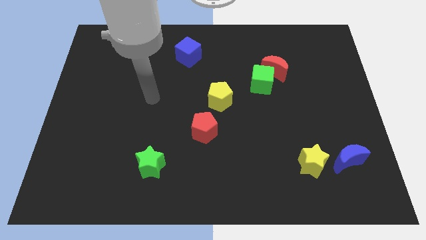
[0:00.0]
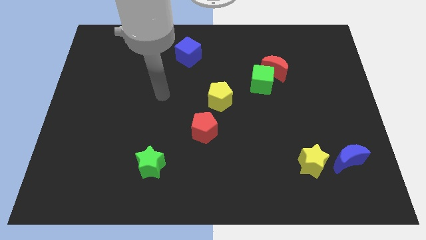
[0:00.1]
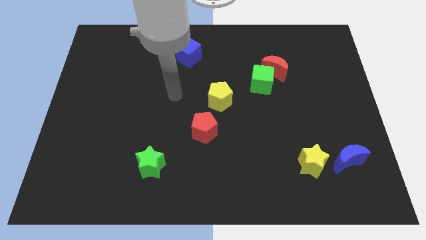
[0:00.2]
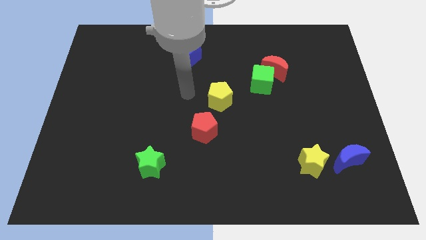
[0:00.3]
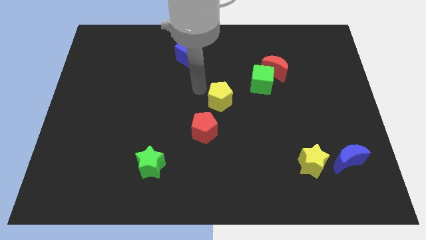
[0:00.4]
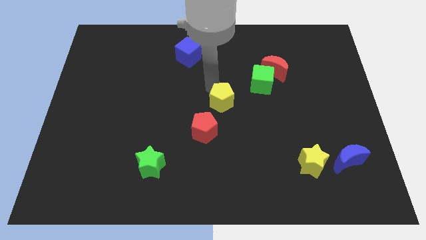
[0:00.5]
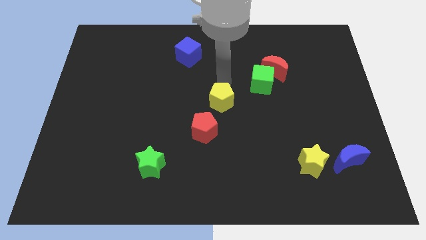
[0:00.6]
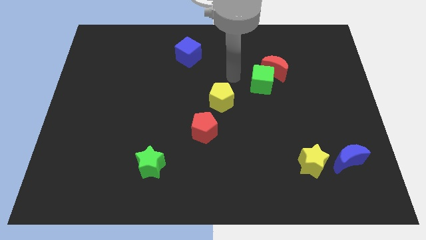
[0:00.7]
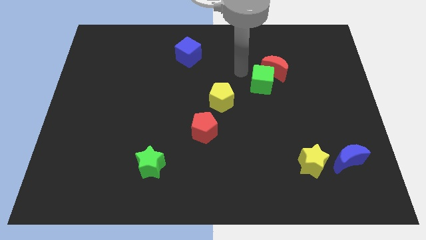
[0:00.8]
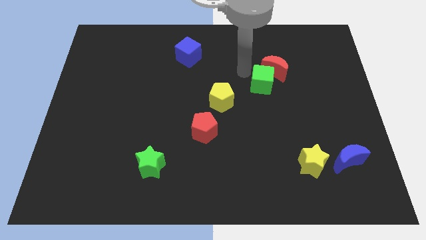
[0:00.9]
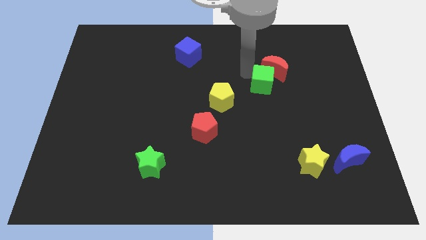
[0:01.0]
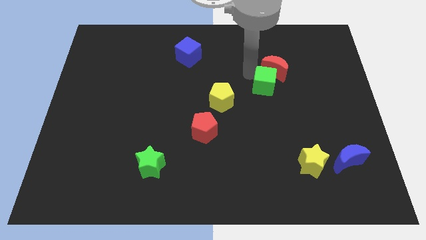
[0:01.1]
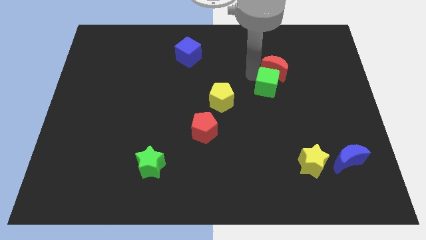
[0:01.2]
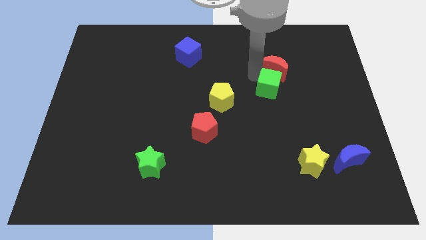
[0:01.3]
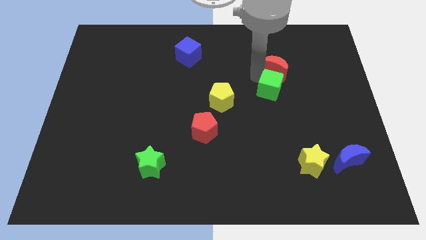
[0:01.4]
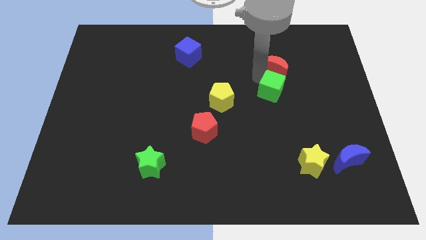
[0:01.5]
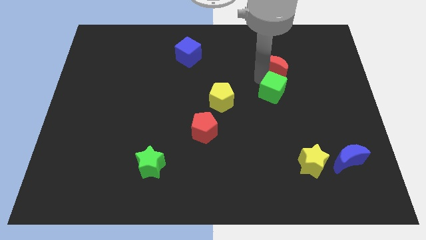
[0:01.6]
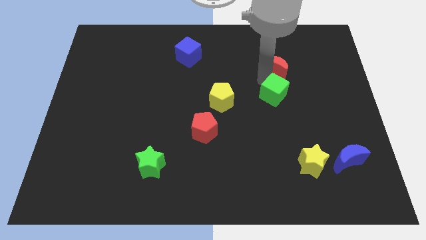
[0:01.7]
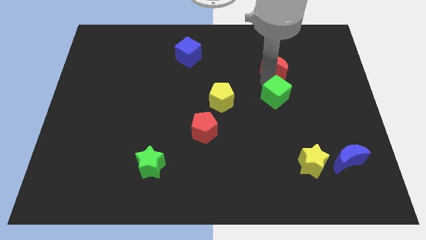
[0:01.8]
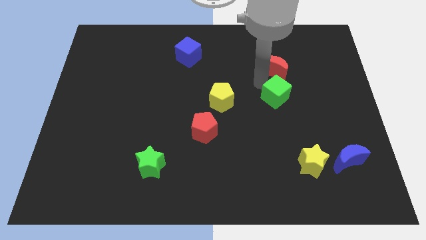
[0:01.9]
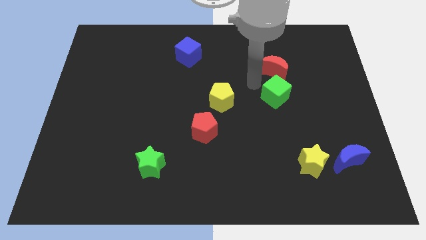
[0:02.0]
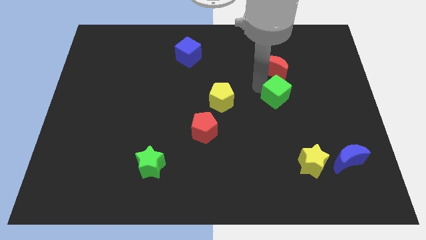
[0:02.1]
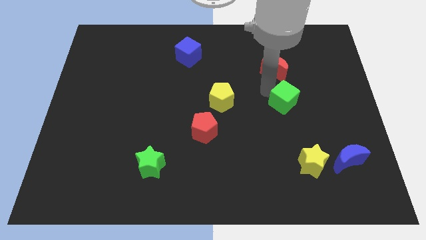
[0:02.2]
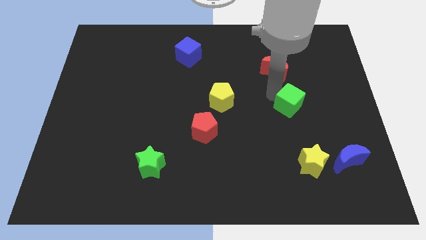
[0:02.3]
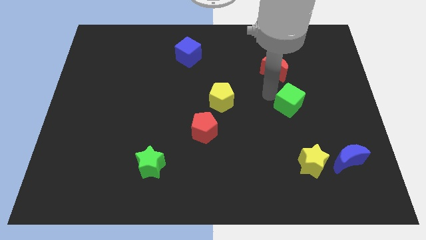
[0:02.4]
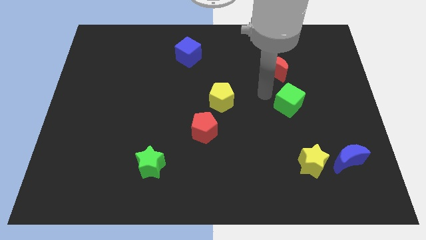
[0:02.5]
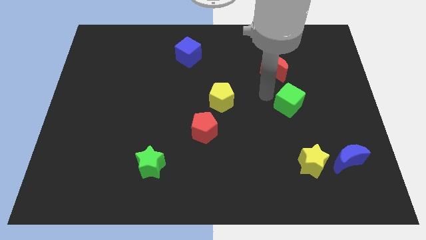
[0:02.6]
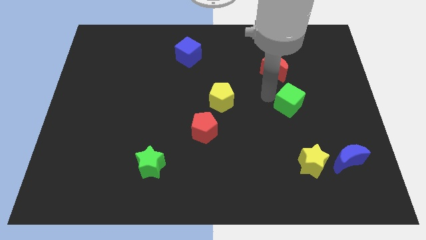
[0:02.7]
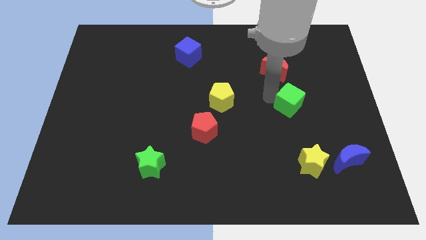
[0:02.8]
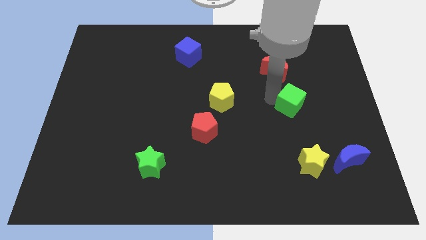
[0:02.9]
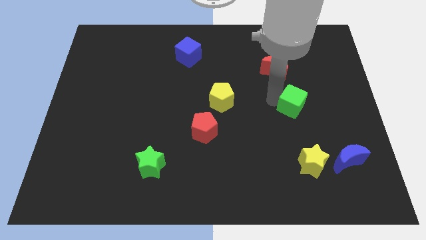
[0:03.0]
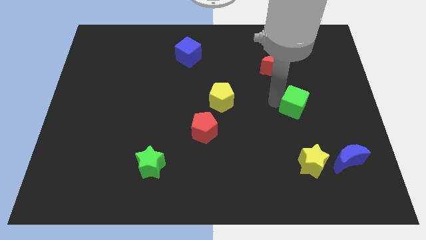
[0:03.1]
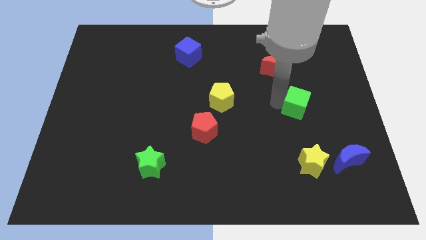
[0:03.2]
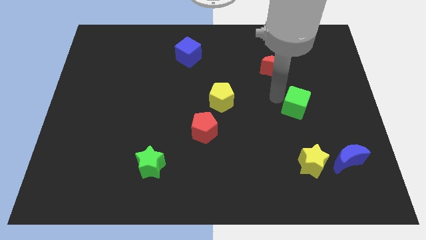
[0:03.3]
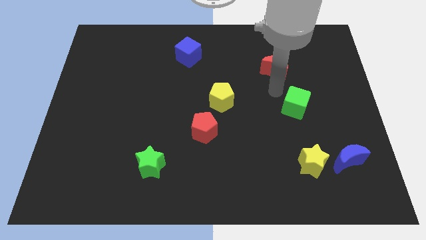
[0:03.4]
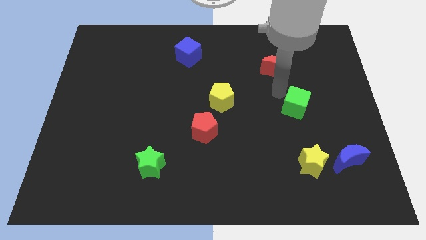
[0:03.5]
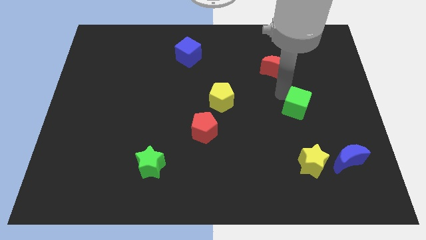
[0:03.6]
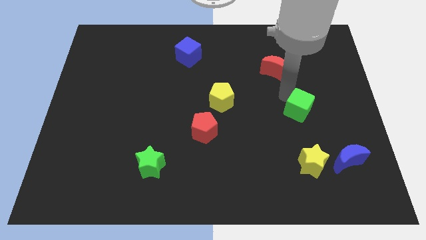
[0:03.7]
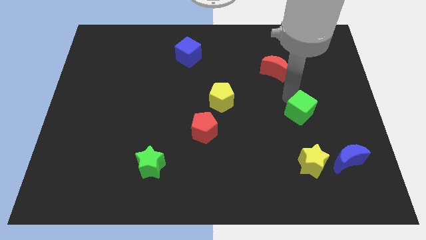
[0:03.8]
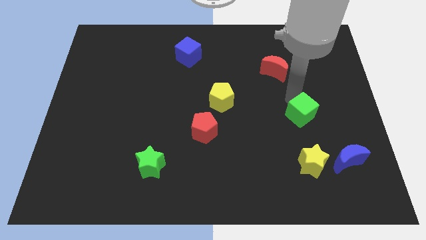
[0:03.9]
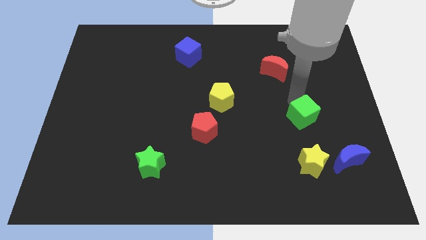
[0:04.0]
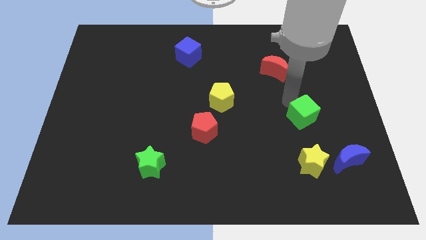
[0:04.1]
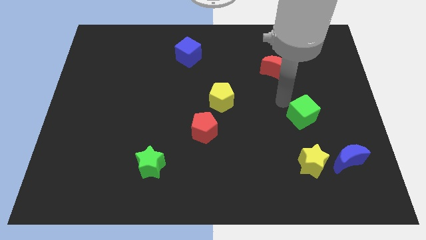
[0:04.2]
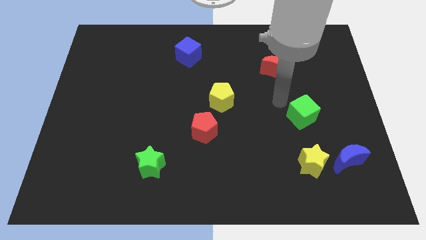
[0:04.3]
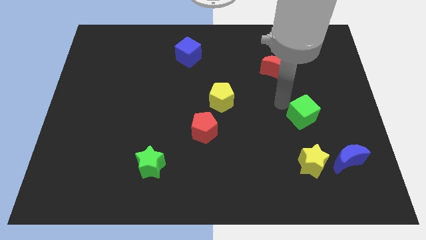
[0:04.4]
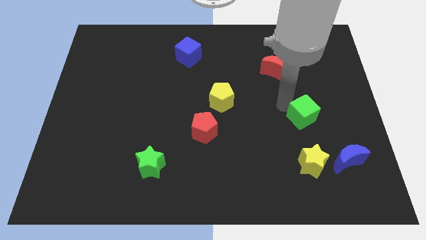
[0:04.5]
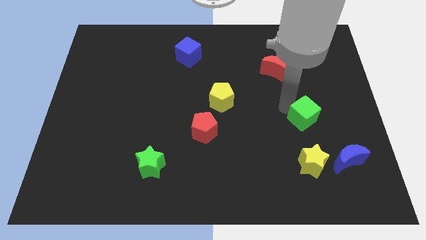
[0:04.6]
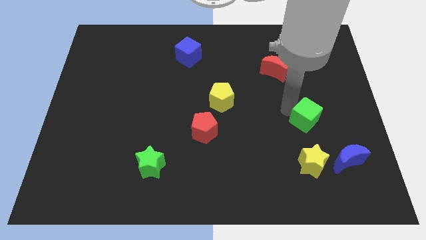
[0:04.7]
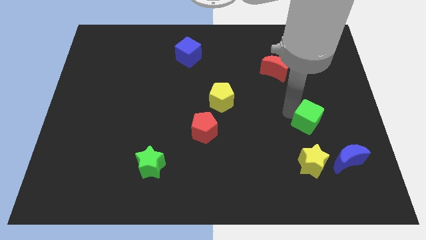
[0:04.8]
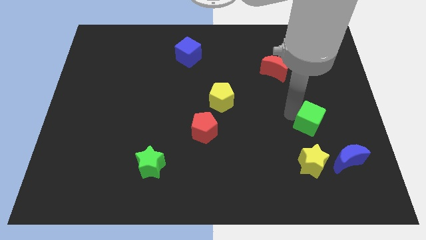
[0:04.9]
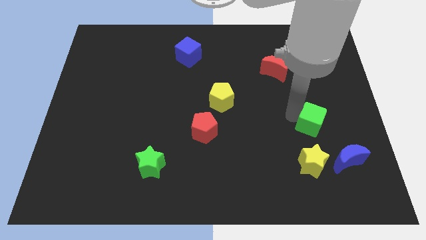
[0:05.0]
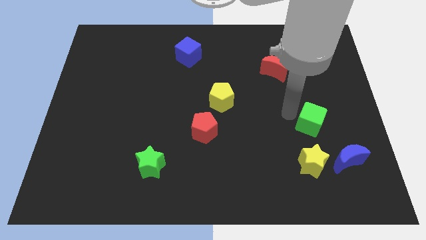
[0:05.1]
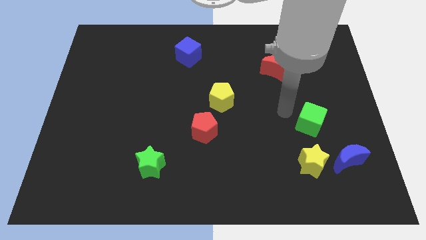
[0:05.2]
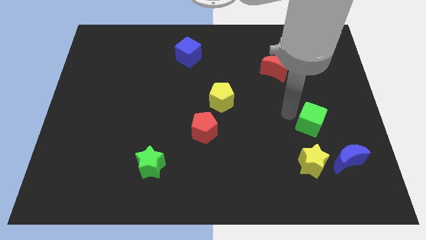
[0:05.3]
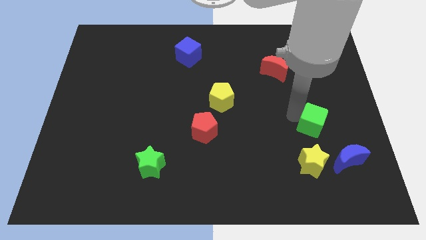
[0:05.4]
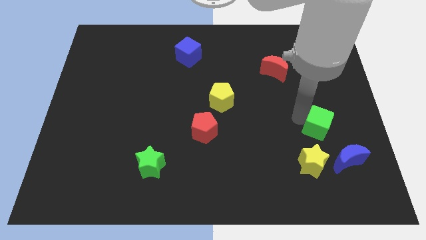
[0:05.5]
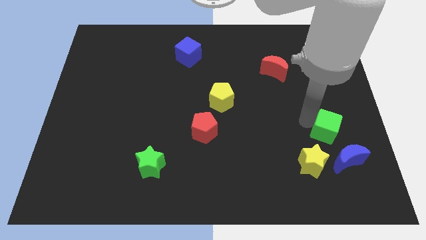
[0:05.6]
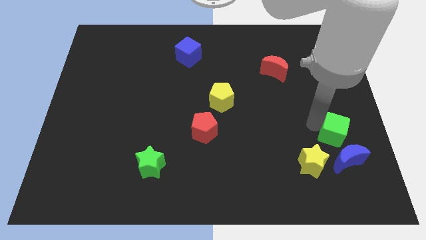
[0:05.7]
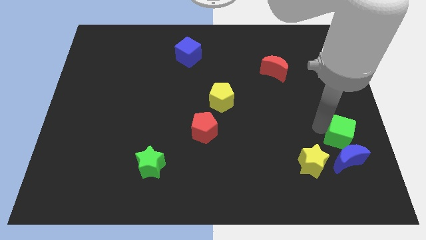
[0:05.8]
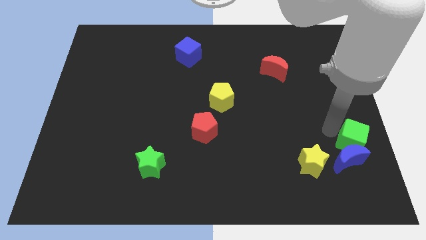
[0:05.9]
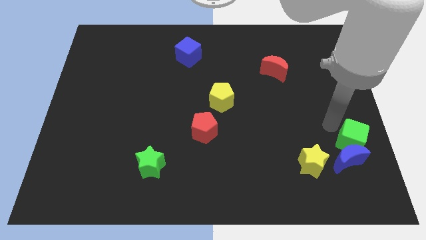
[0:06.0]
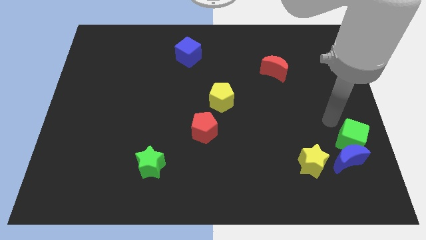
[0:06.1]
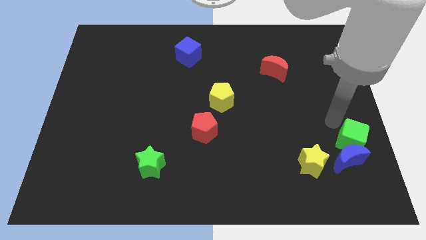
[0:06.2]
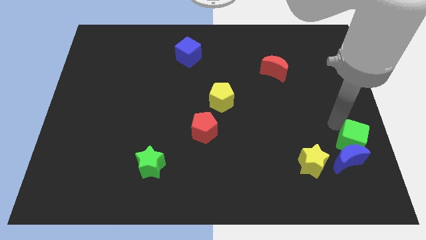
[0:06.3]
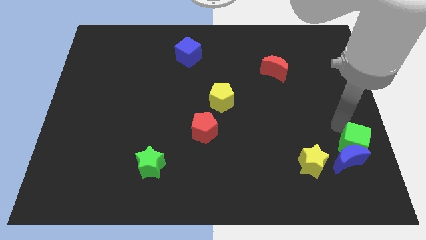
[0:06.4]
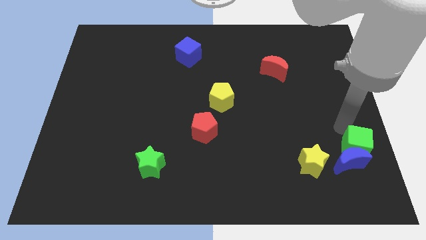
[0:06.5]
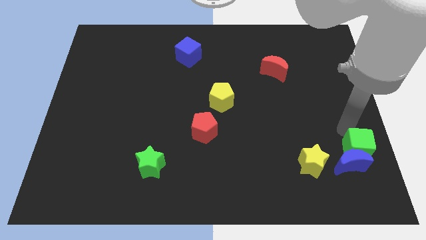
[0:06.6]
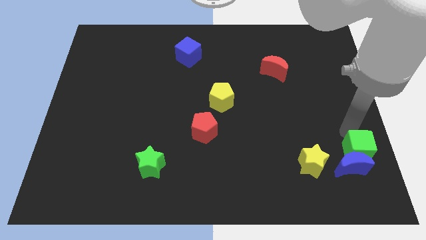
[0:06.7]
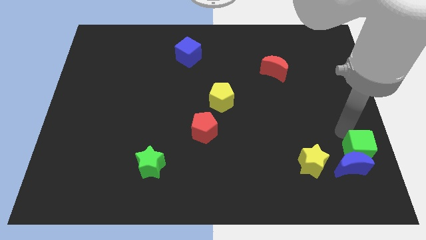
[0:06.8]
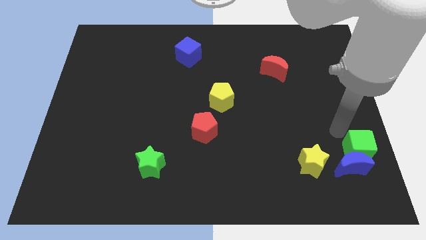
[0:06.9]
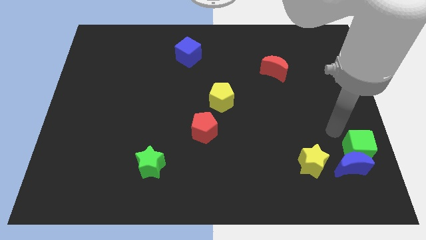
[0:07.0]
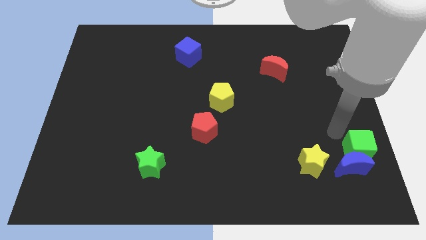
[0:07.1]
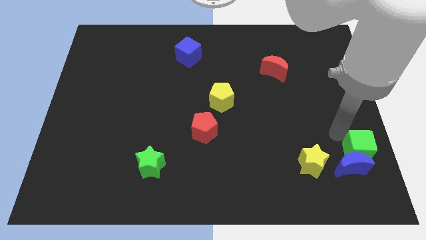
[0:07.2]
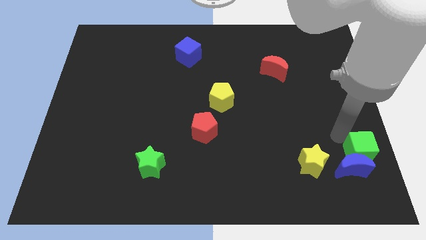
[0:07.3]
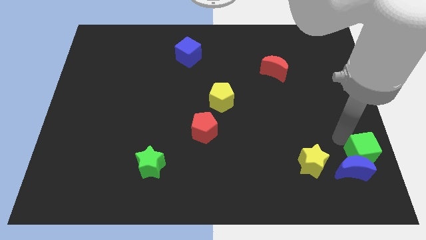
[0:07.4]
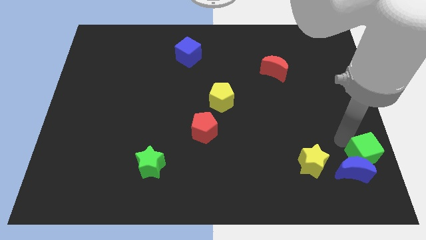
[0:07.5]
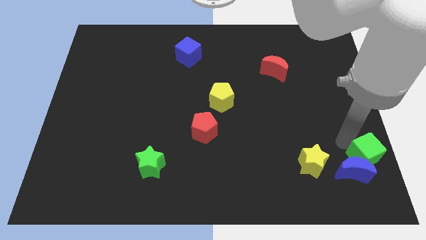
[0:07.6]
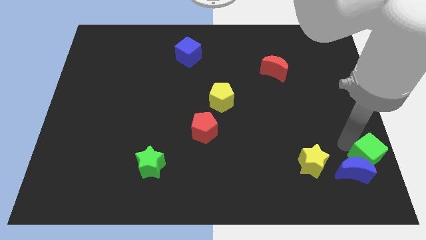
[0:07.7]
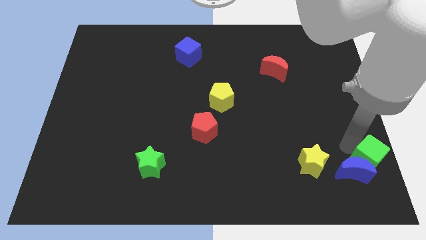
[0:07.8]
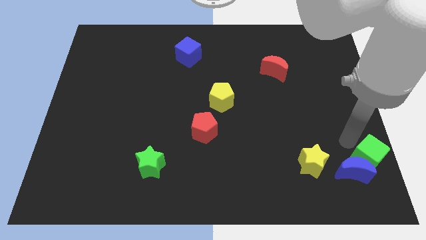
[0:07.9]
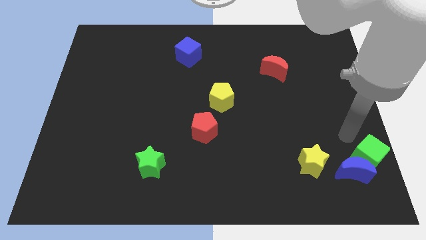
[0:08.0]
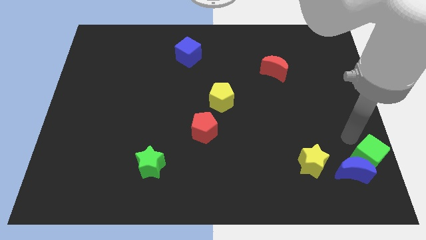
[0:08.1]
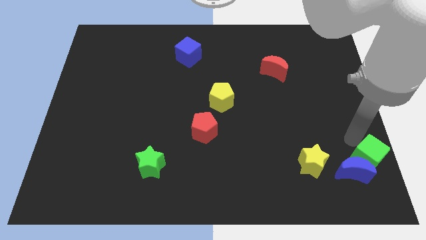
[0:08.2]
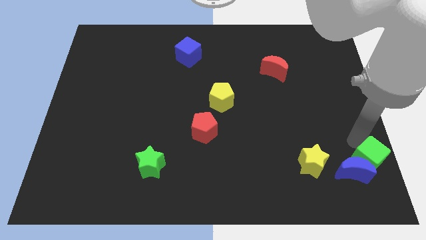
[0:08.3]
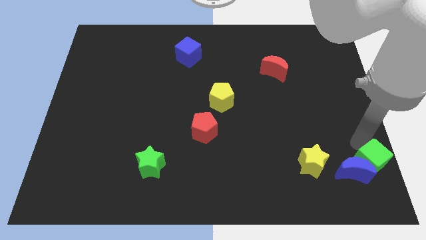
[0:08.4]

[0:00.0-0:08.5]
put the green cube to the bottom right of the board
